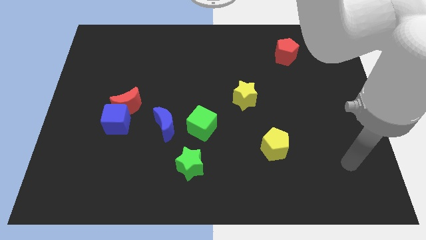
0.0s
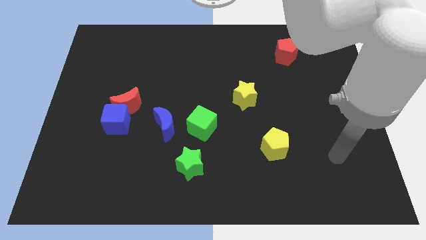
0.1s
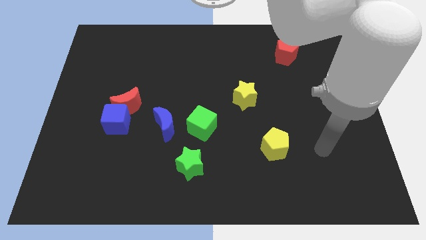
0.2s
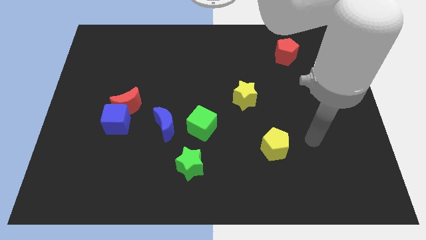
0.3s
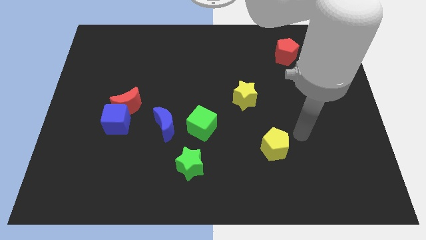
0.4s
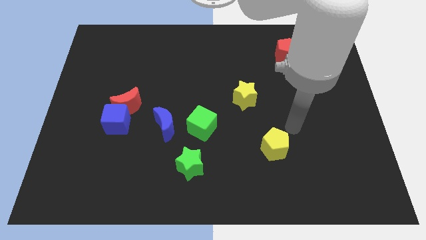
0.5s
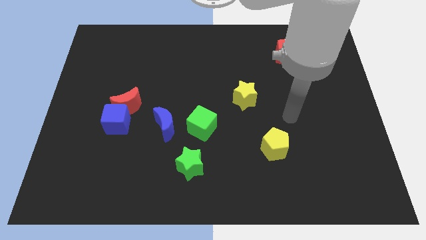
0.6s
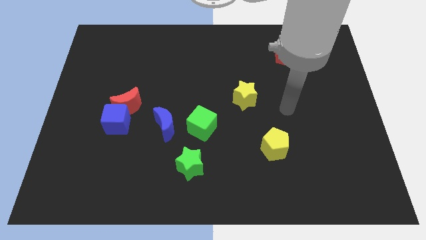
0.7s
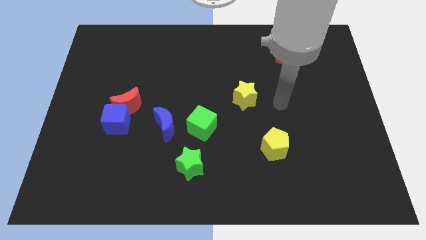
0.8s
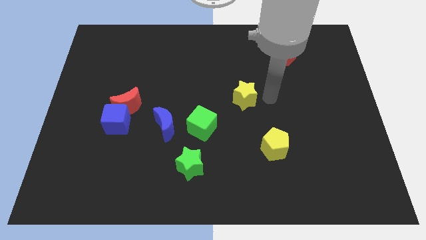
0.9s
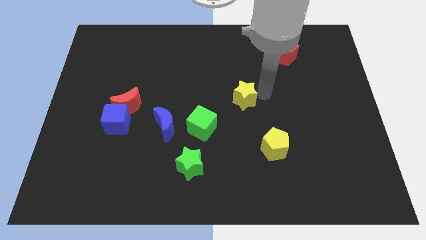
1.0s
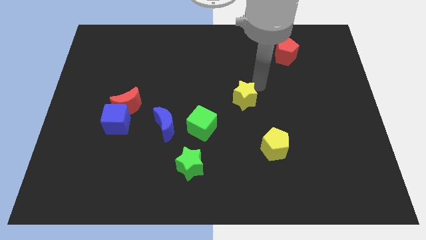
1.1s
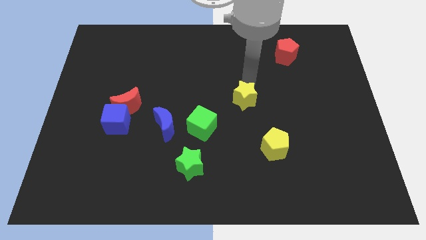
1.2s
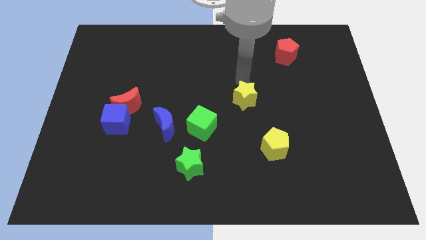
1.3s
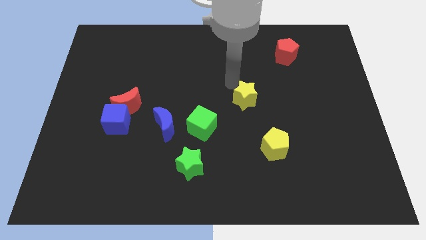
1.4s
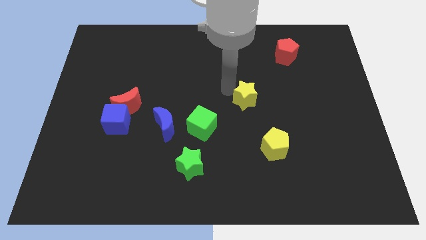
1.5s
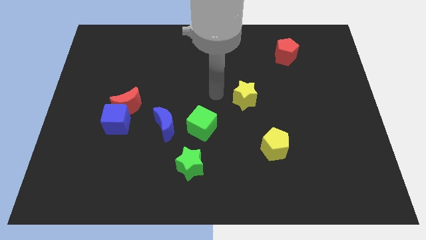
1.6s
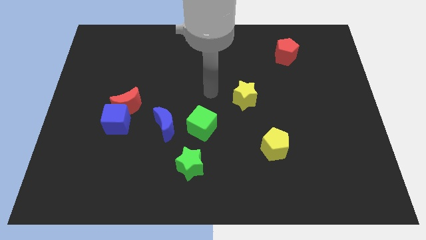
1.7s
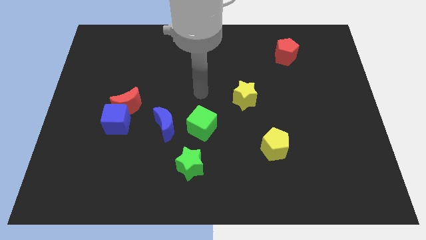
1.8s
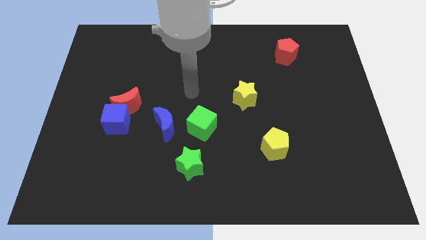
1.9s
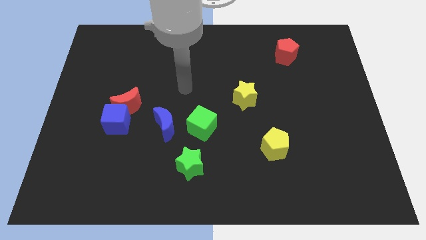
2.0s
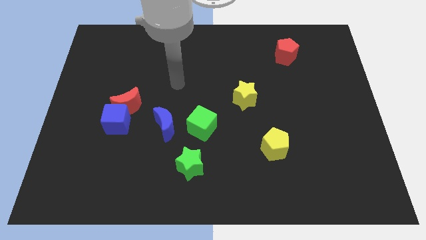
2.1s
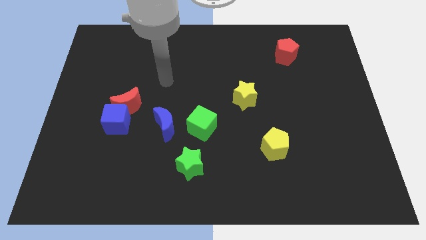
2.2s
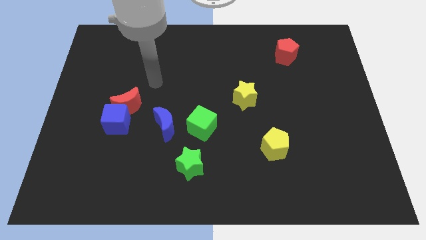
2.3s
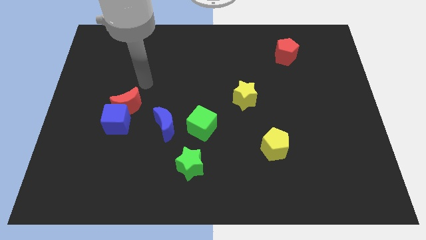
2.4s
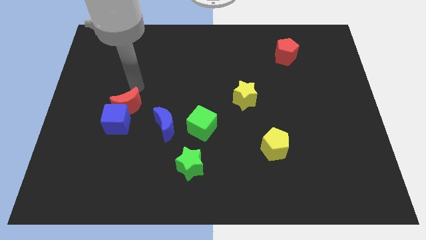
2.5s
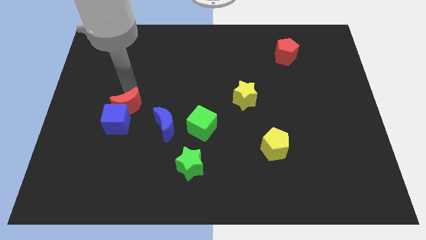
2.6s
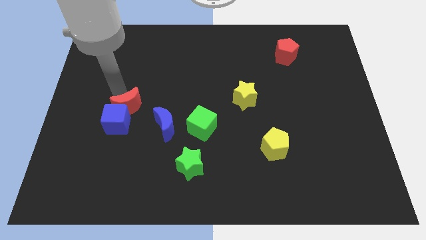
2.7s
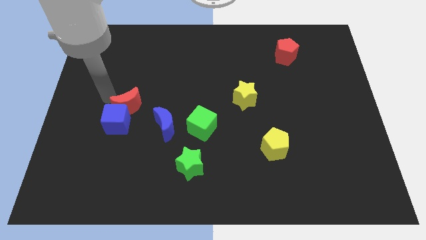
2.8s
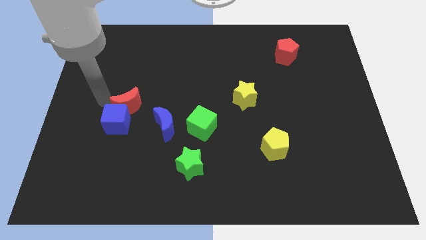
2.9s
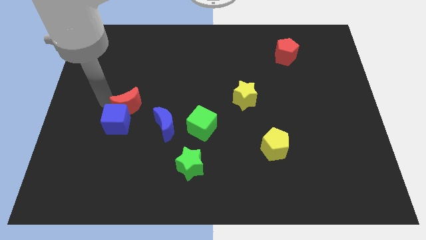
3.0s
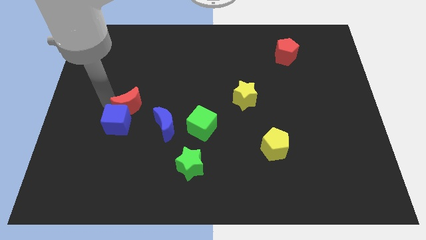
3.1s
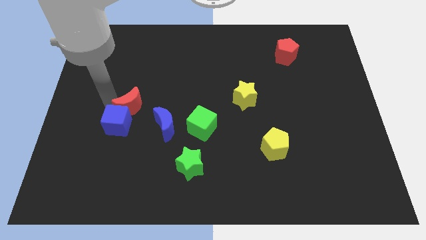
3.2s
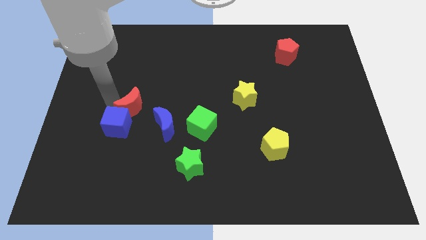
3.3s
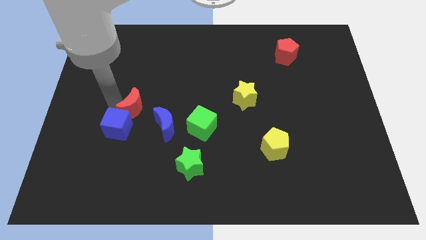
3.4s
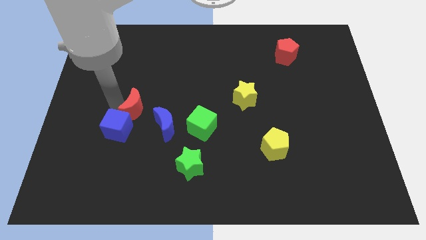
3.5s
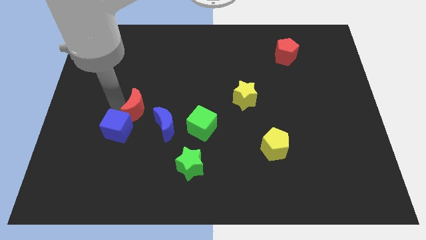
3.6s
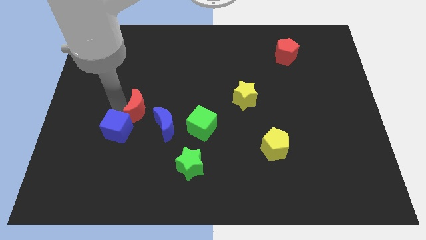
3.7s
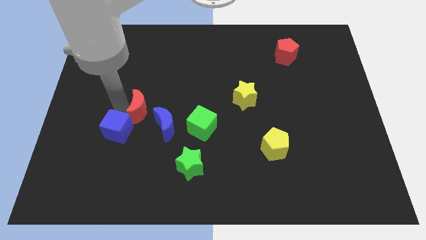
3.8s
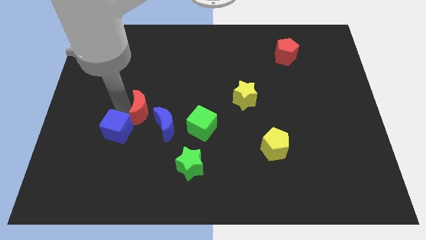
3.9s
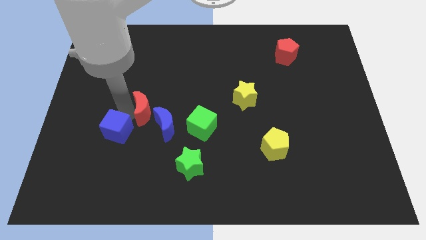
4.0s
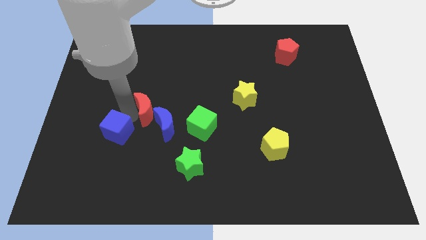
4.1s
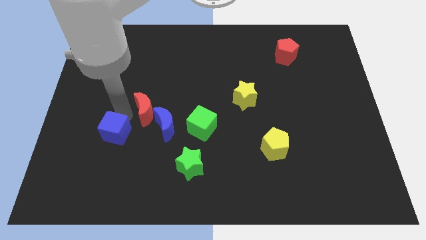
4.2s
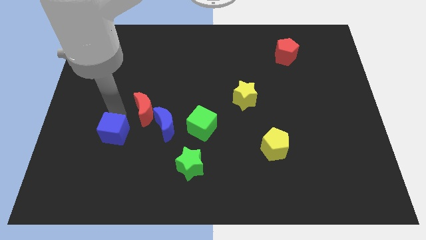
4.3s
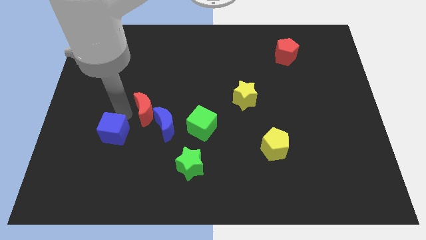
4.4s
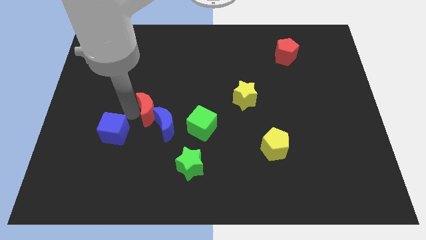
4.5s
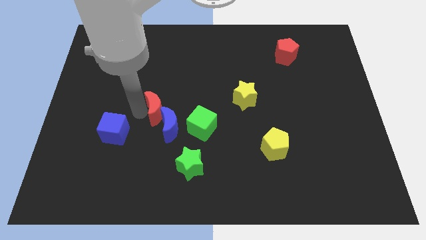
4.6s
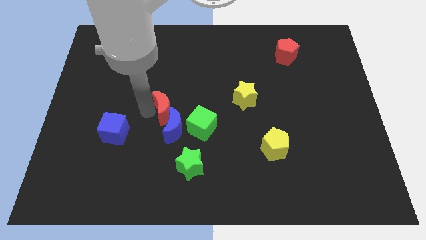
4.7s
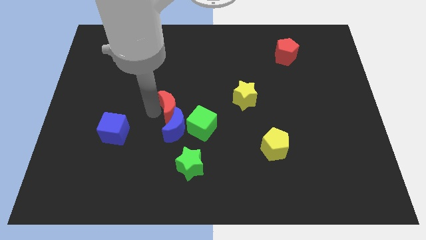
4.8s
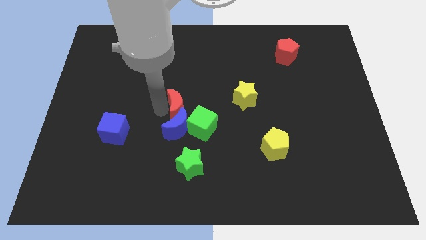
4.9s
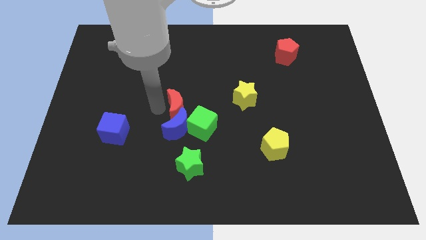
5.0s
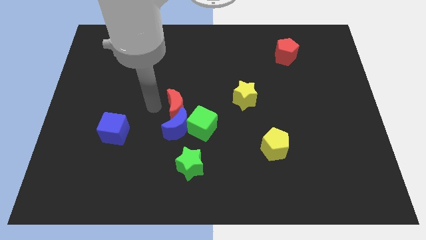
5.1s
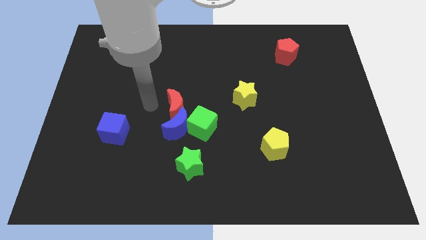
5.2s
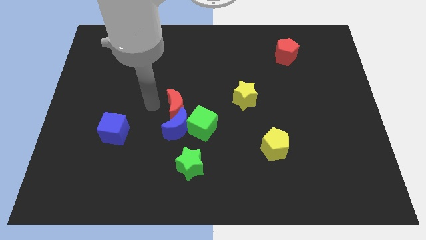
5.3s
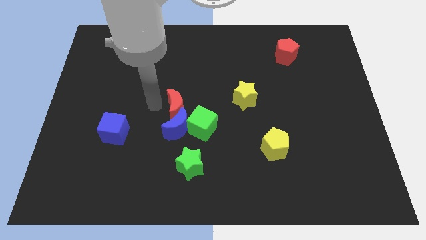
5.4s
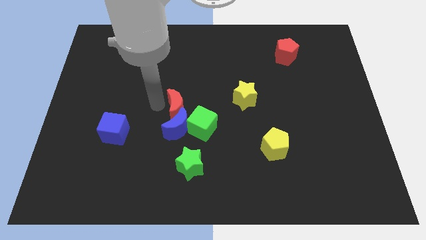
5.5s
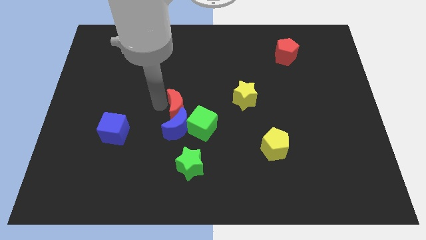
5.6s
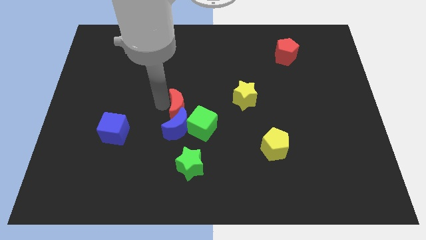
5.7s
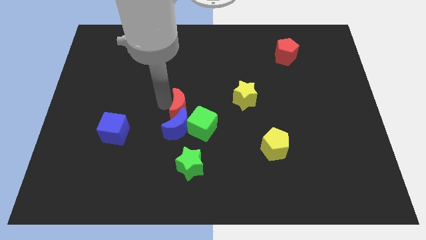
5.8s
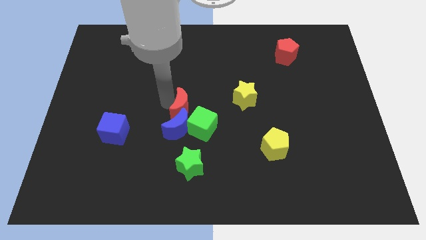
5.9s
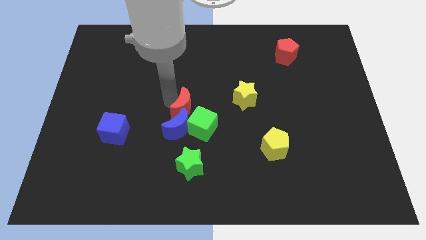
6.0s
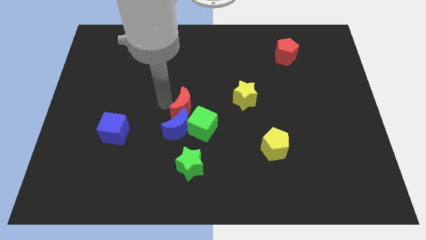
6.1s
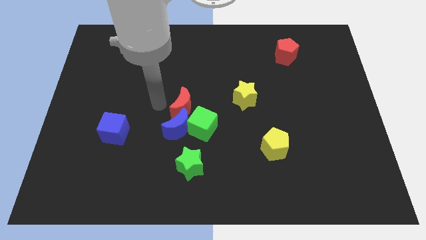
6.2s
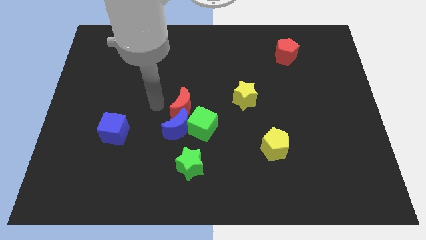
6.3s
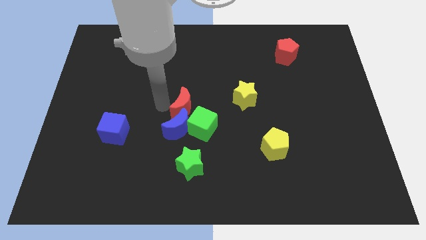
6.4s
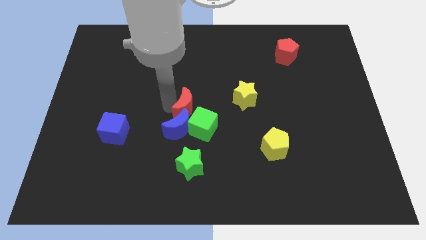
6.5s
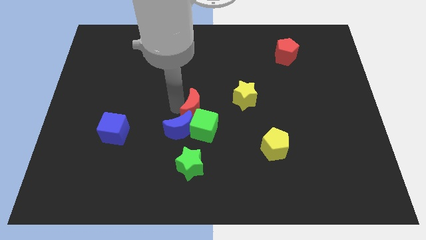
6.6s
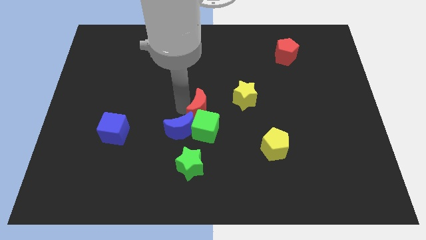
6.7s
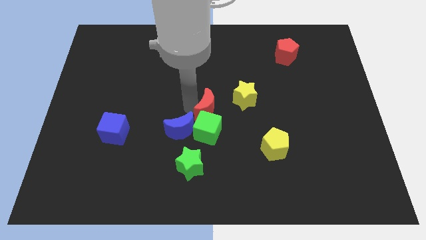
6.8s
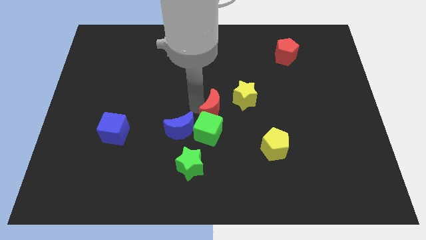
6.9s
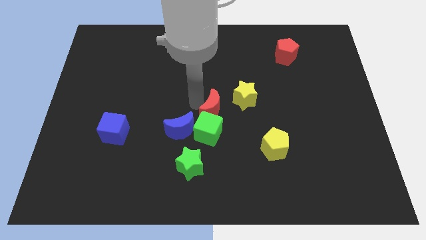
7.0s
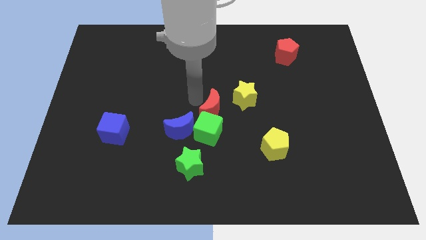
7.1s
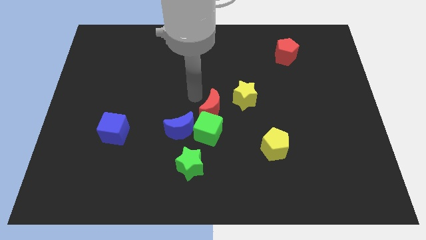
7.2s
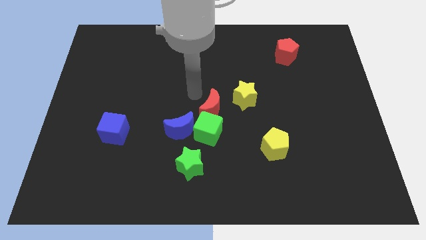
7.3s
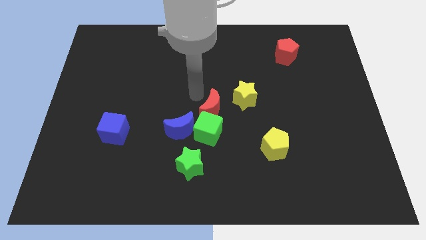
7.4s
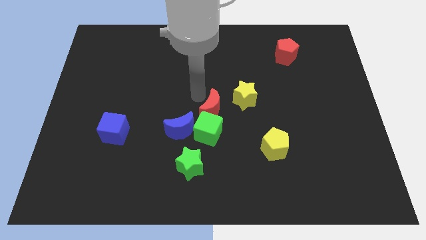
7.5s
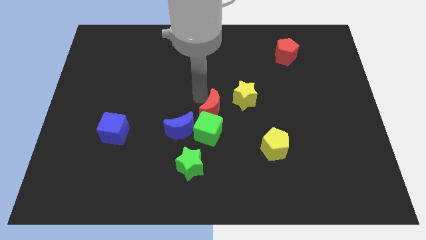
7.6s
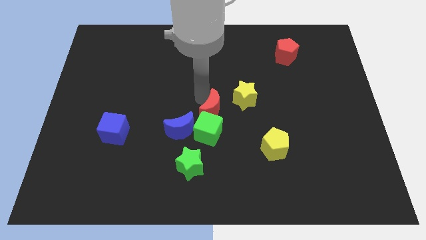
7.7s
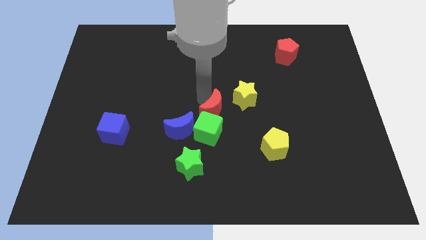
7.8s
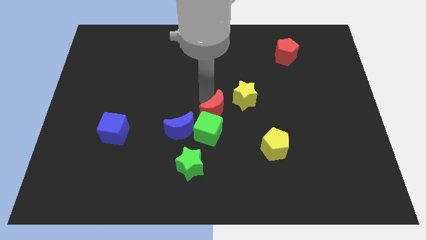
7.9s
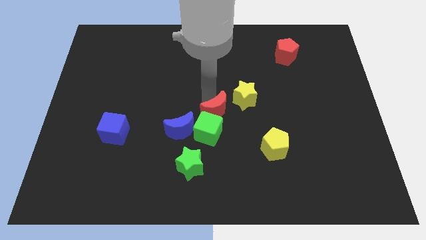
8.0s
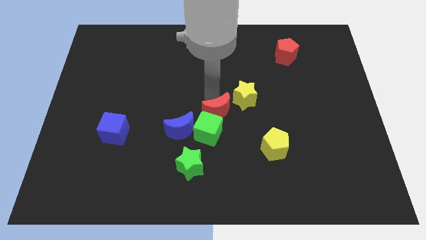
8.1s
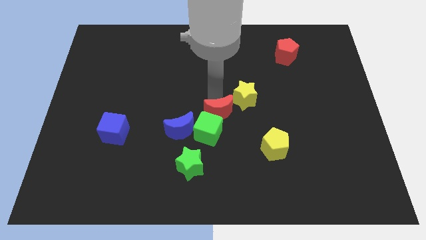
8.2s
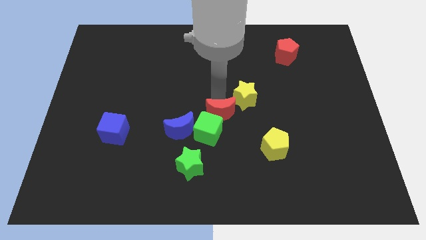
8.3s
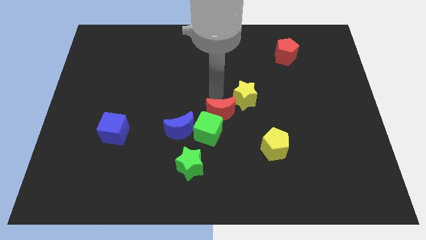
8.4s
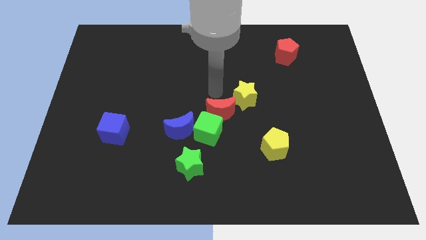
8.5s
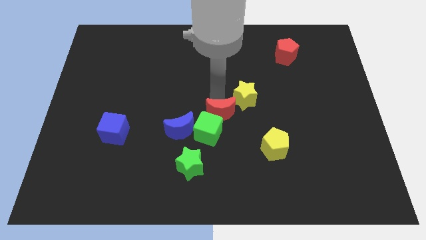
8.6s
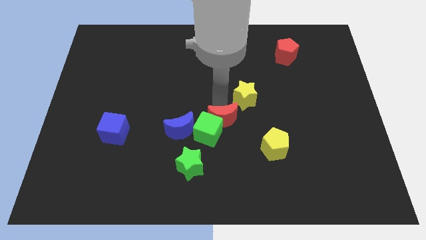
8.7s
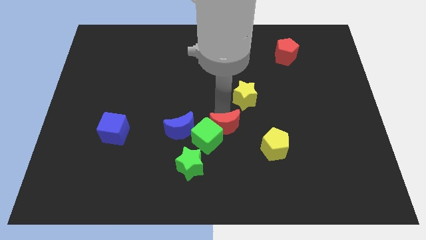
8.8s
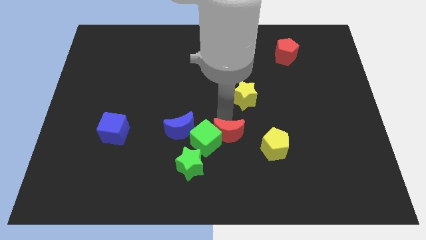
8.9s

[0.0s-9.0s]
move the red moon to the bottom right side of the green cube
